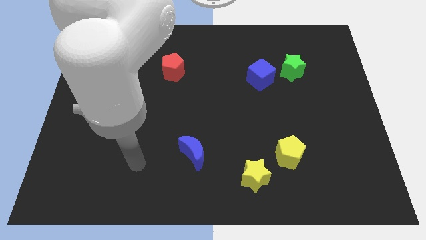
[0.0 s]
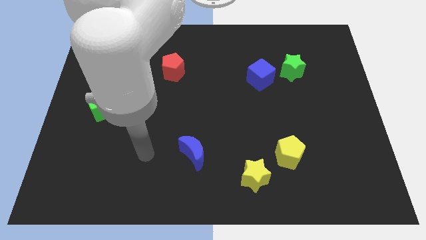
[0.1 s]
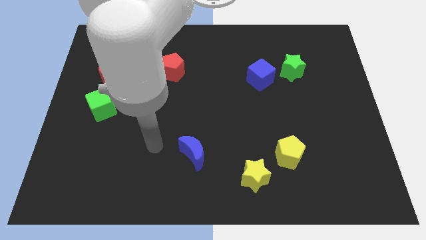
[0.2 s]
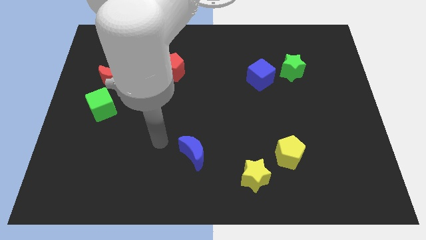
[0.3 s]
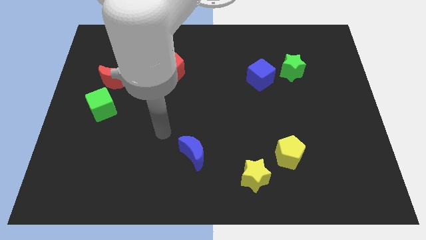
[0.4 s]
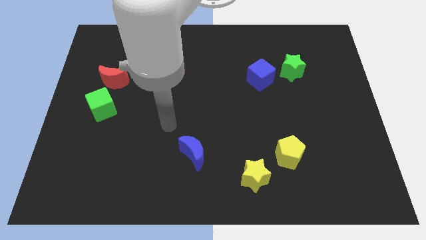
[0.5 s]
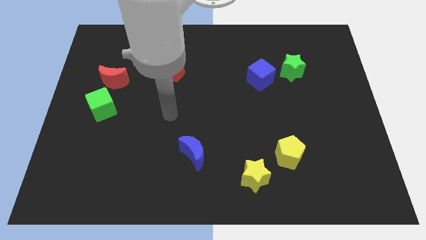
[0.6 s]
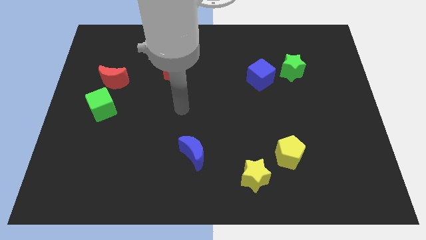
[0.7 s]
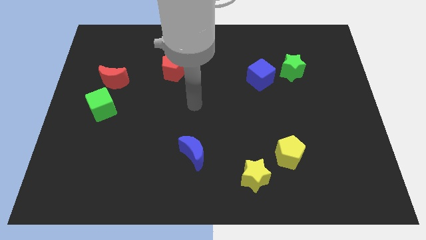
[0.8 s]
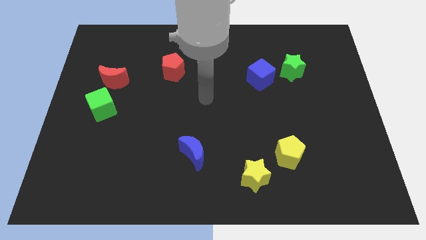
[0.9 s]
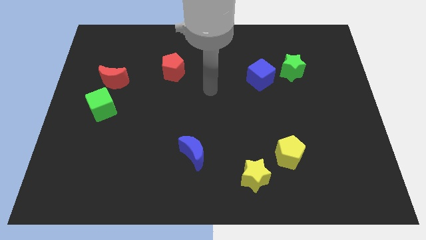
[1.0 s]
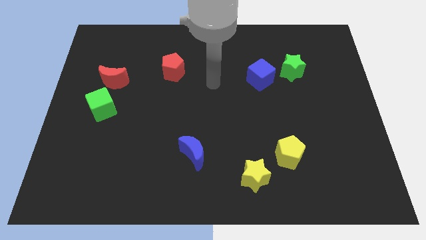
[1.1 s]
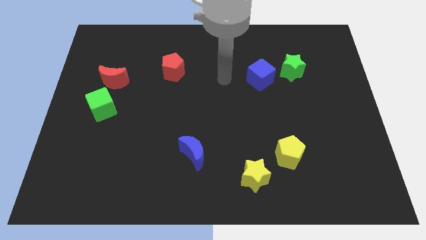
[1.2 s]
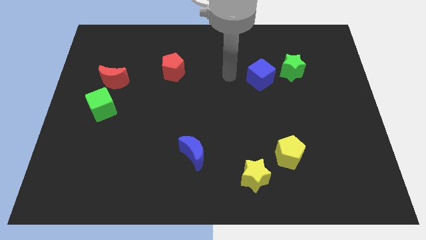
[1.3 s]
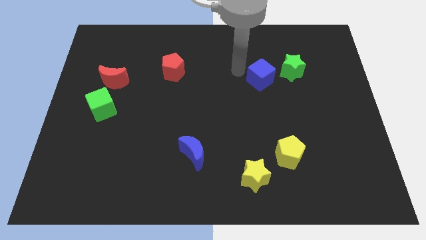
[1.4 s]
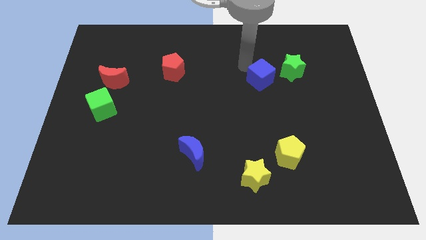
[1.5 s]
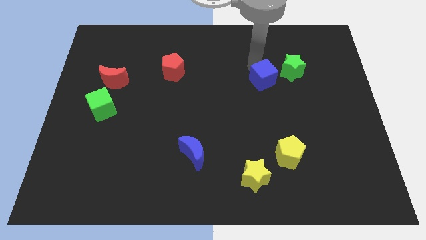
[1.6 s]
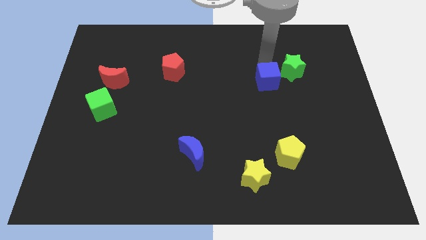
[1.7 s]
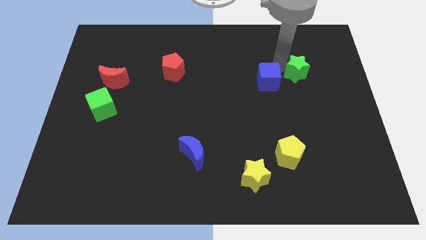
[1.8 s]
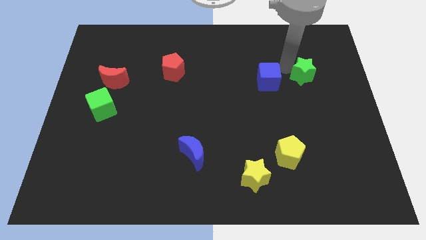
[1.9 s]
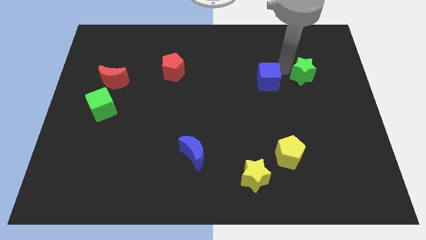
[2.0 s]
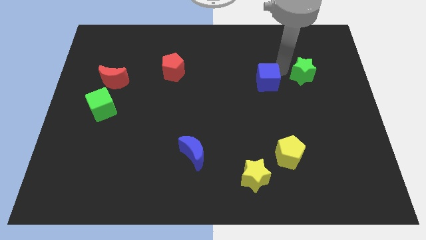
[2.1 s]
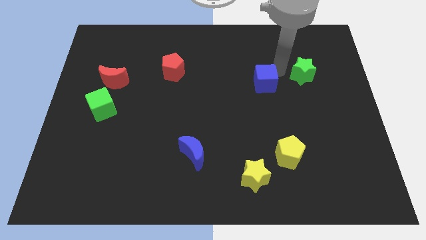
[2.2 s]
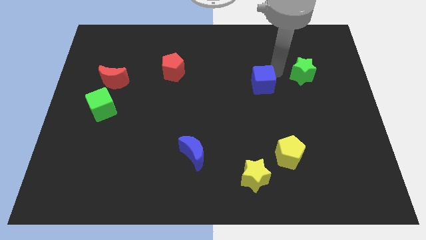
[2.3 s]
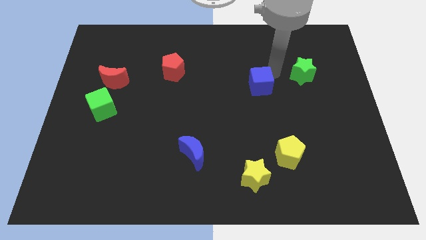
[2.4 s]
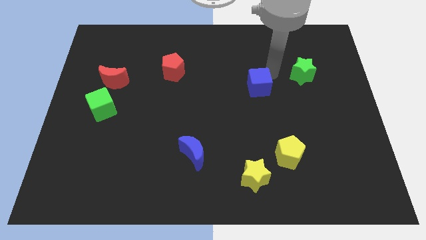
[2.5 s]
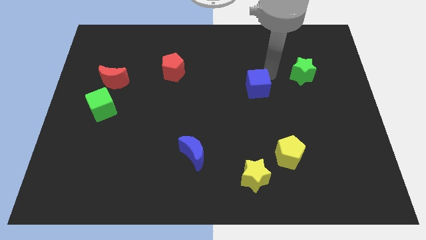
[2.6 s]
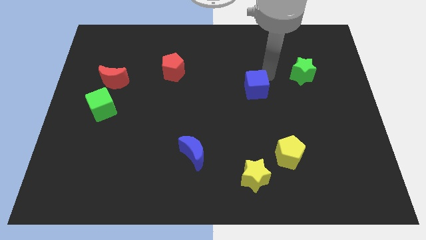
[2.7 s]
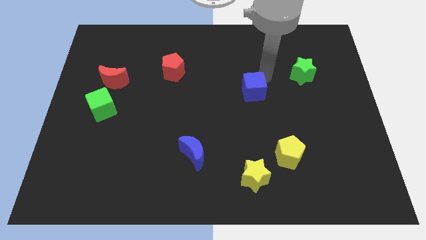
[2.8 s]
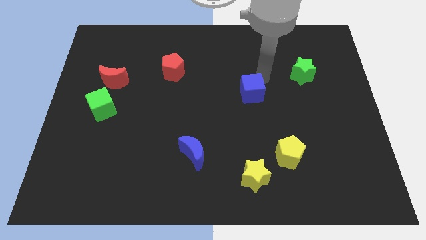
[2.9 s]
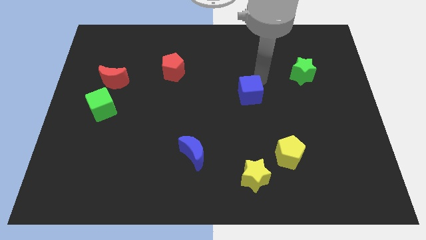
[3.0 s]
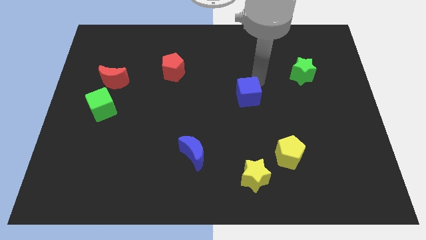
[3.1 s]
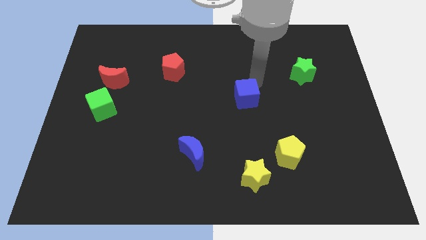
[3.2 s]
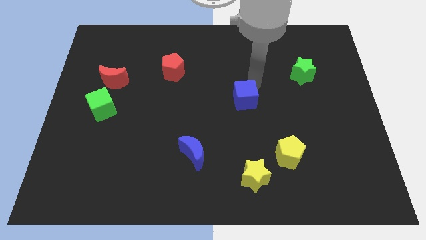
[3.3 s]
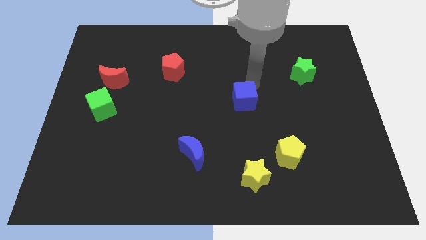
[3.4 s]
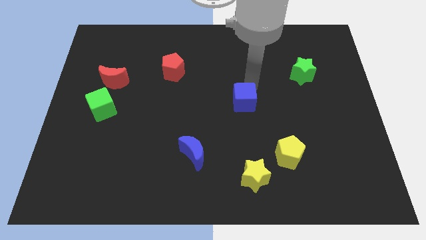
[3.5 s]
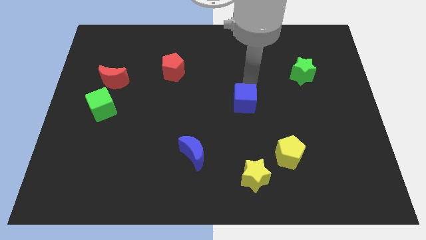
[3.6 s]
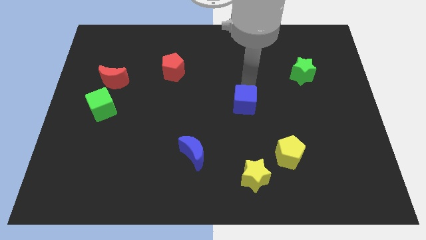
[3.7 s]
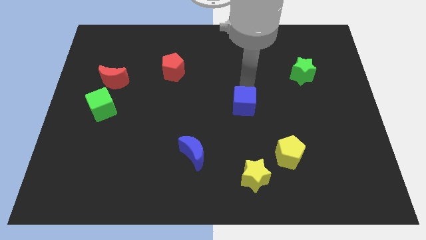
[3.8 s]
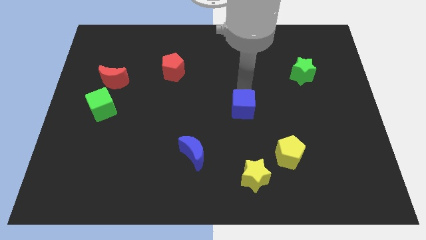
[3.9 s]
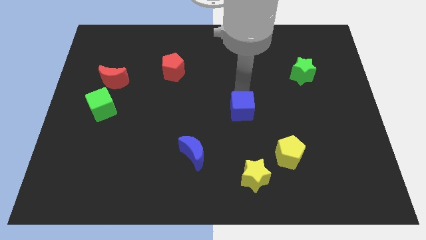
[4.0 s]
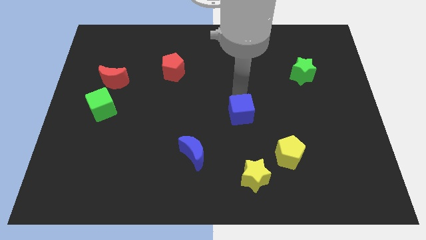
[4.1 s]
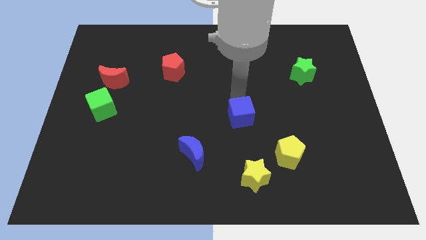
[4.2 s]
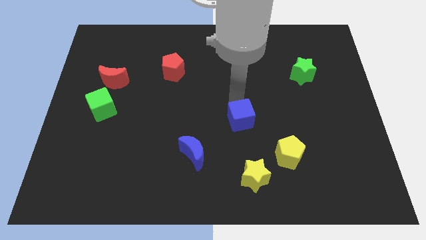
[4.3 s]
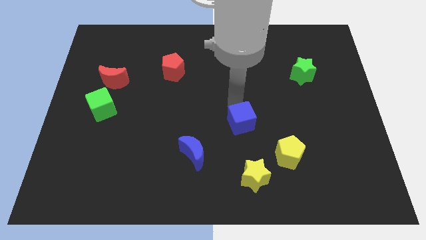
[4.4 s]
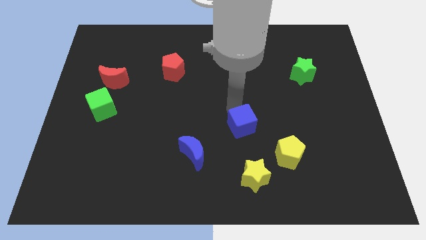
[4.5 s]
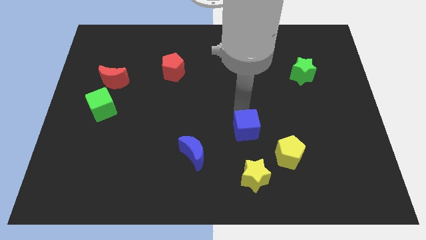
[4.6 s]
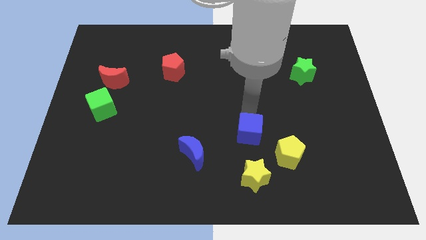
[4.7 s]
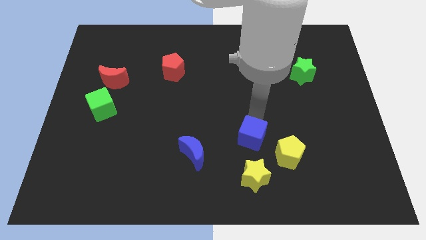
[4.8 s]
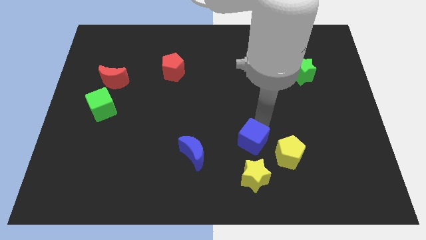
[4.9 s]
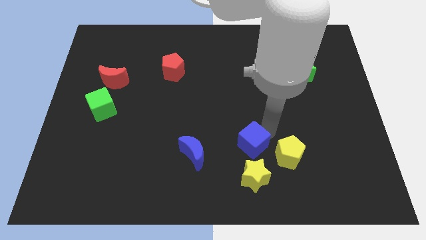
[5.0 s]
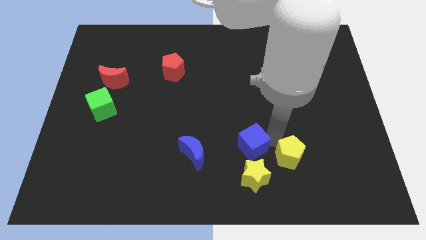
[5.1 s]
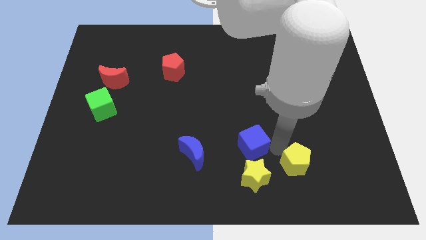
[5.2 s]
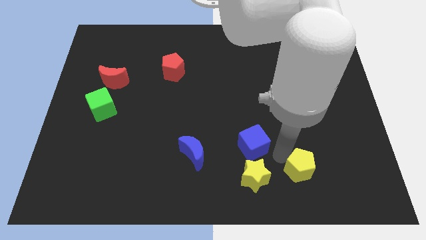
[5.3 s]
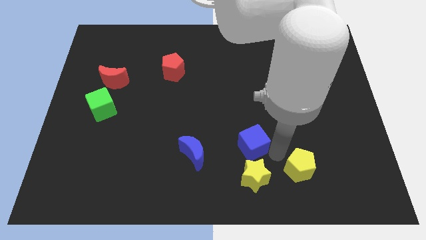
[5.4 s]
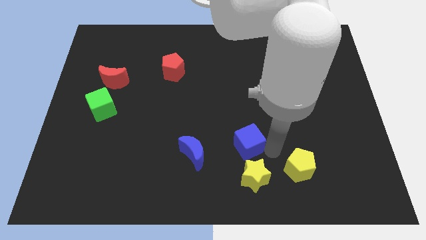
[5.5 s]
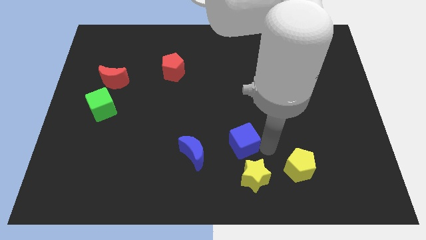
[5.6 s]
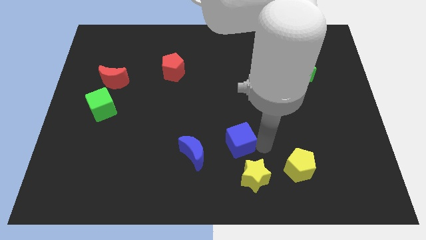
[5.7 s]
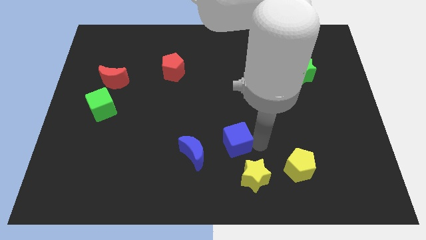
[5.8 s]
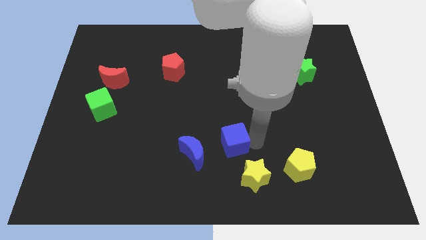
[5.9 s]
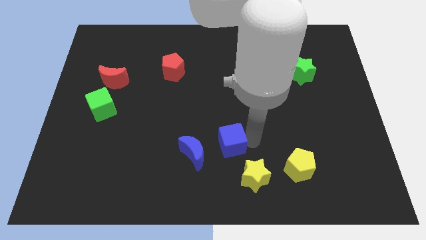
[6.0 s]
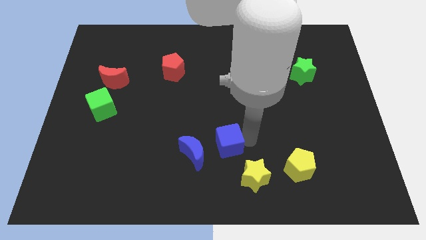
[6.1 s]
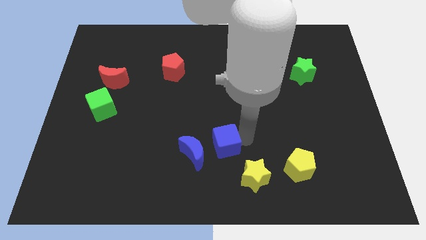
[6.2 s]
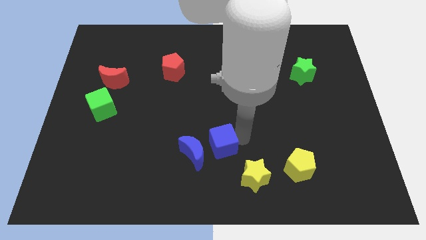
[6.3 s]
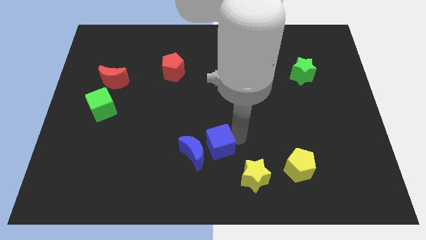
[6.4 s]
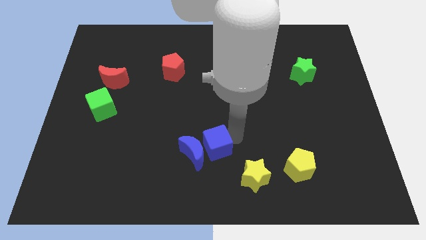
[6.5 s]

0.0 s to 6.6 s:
push the blue cube diagonally down and left

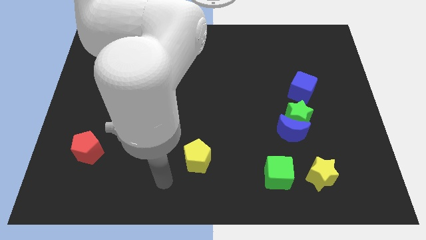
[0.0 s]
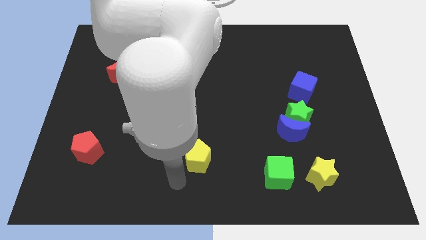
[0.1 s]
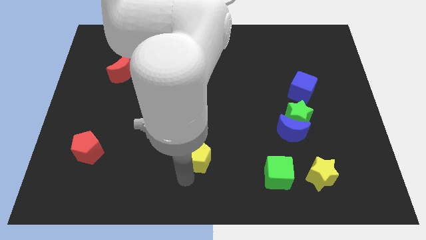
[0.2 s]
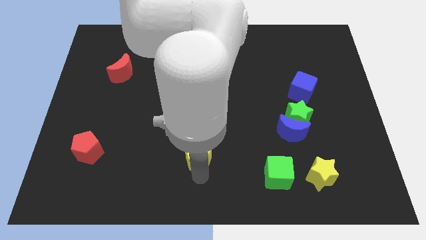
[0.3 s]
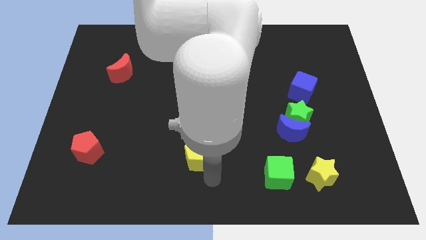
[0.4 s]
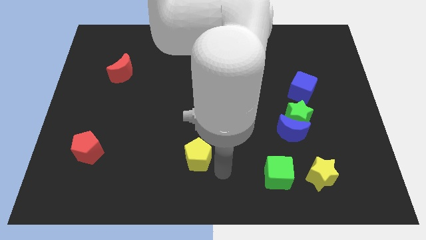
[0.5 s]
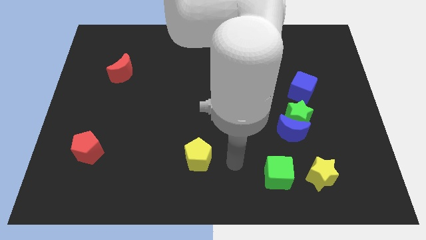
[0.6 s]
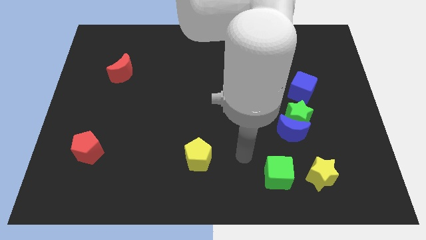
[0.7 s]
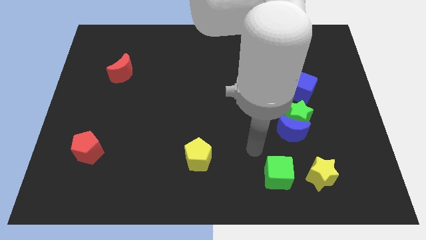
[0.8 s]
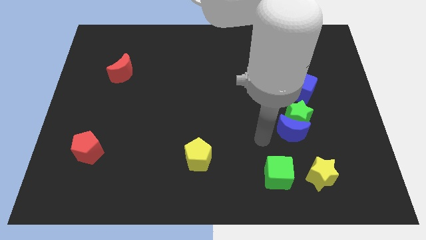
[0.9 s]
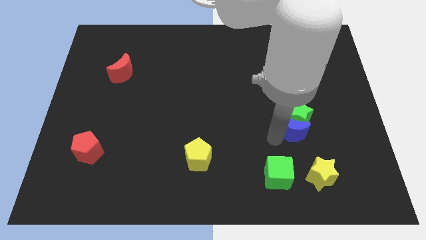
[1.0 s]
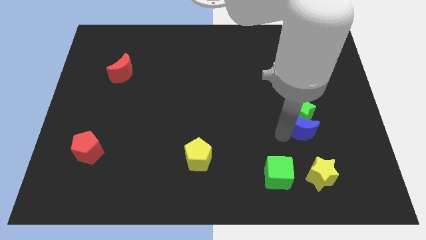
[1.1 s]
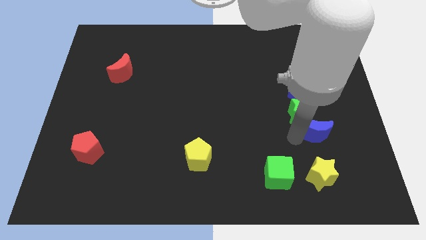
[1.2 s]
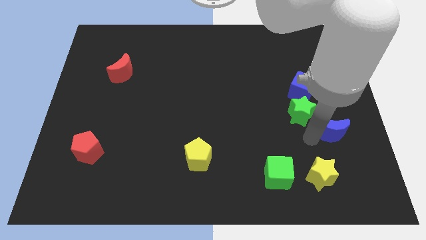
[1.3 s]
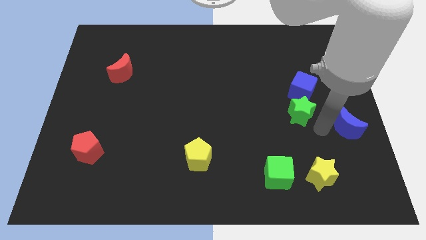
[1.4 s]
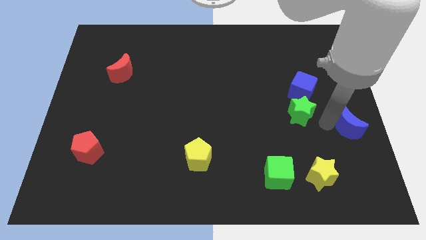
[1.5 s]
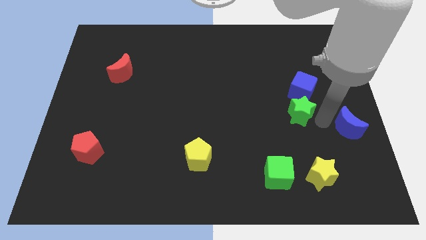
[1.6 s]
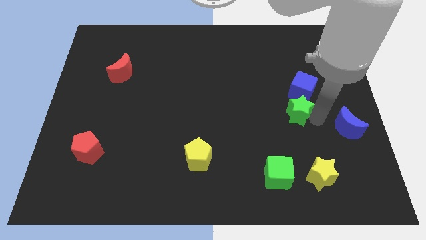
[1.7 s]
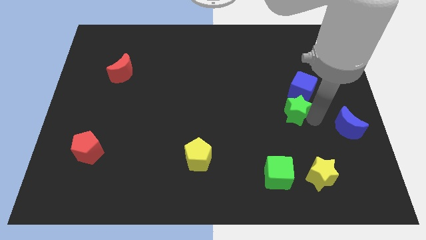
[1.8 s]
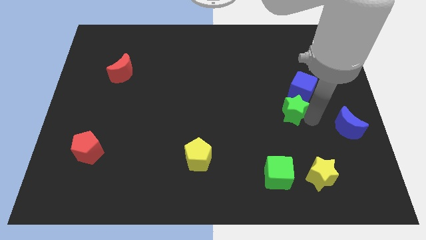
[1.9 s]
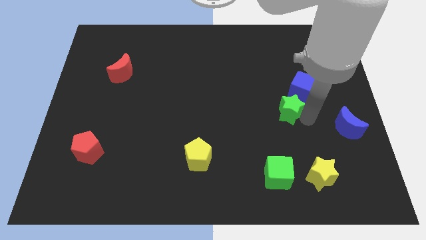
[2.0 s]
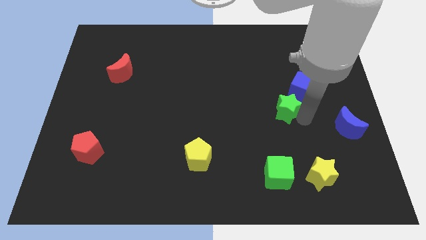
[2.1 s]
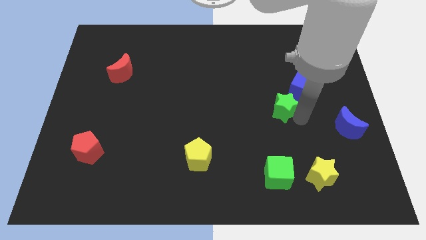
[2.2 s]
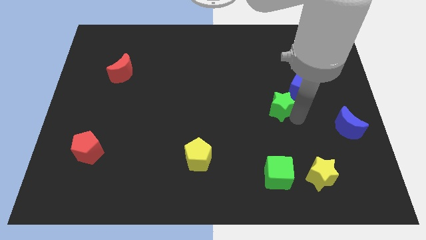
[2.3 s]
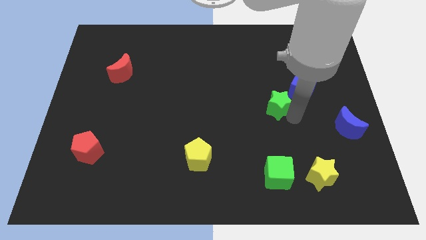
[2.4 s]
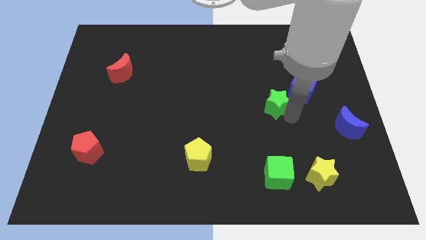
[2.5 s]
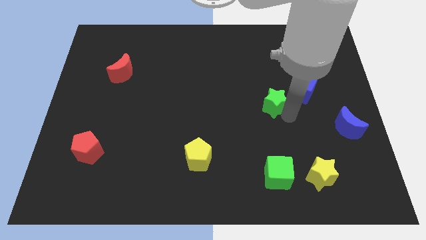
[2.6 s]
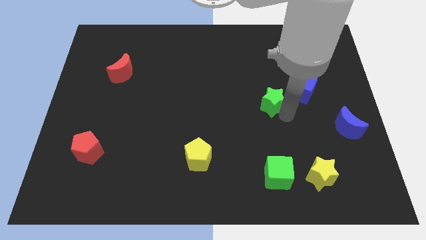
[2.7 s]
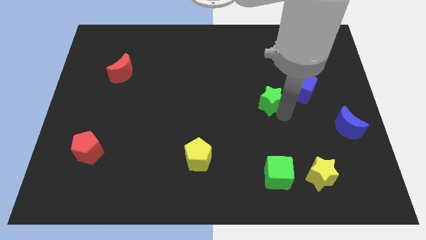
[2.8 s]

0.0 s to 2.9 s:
push the green star upwards and left a little bit
